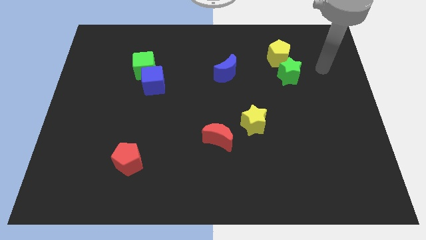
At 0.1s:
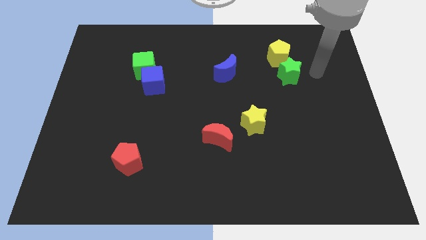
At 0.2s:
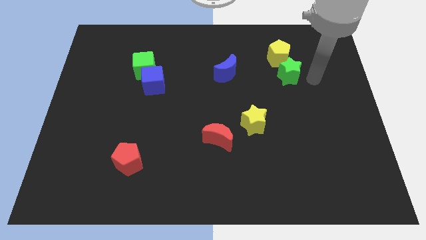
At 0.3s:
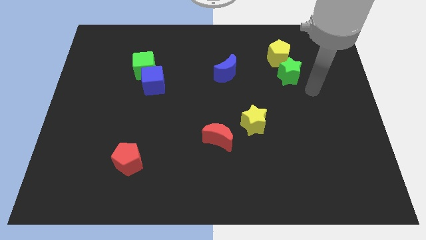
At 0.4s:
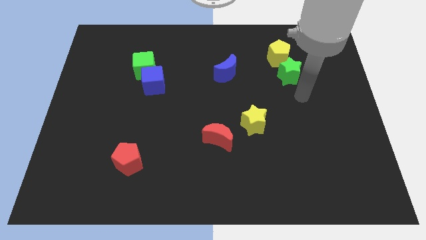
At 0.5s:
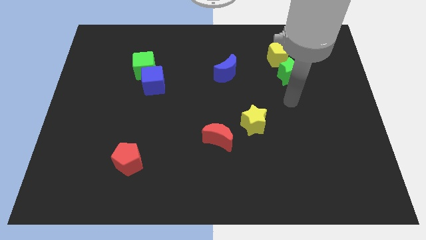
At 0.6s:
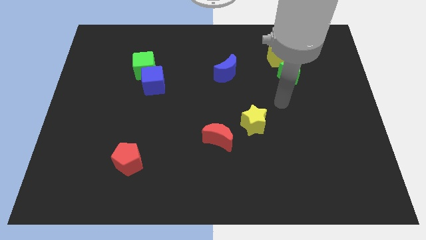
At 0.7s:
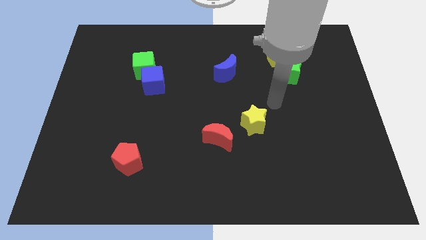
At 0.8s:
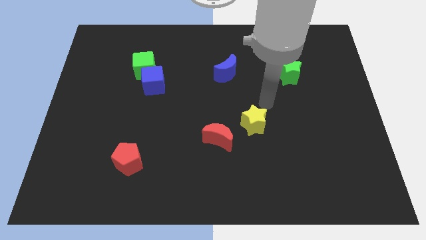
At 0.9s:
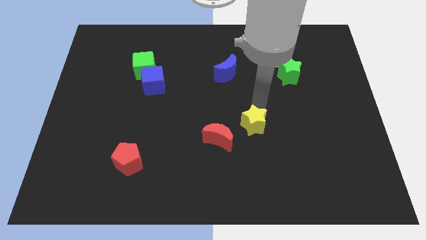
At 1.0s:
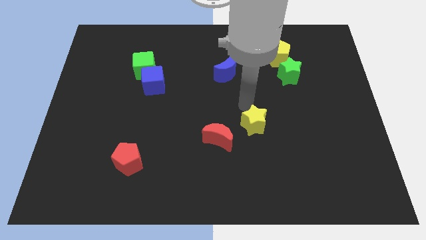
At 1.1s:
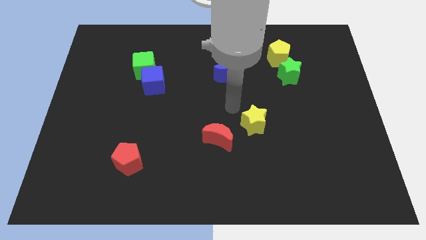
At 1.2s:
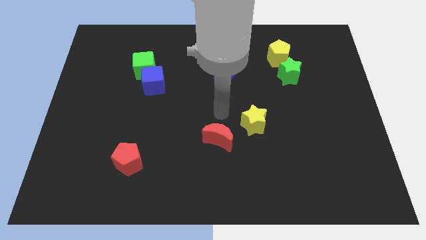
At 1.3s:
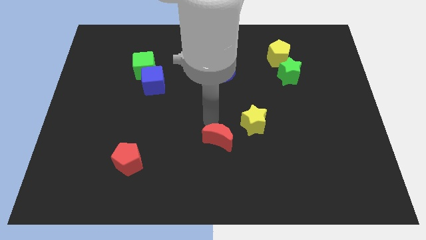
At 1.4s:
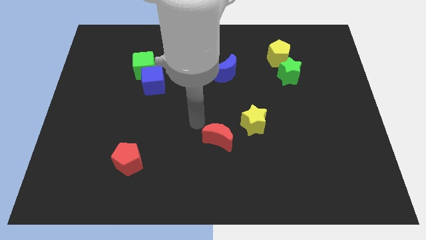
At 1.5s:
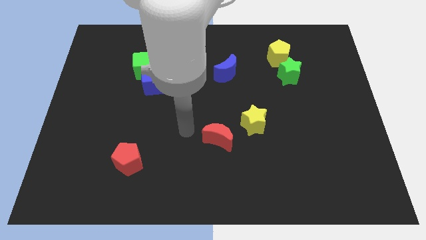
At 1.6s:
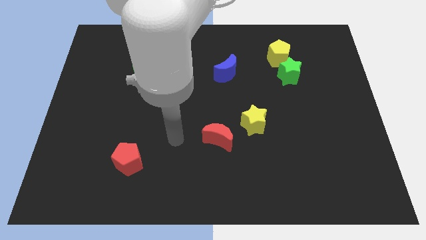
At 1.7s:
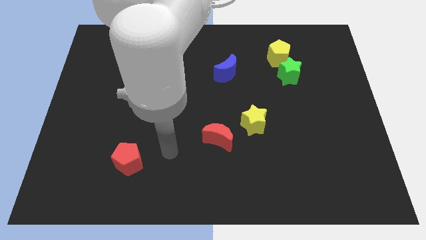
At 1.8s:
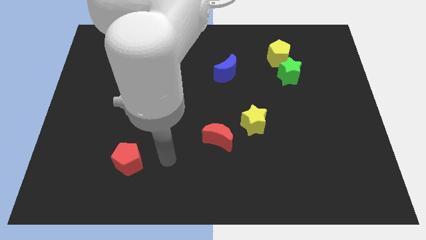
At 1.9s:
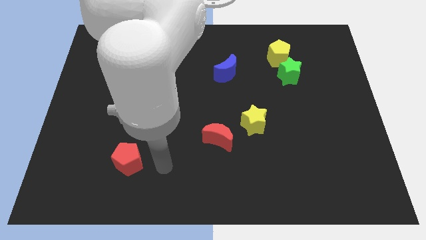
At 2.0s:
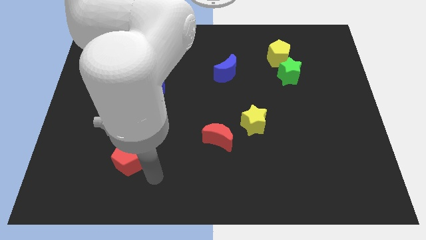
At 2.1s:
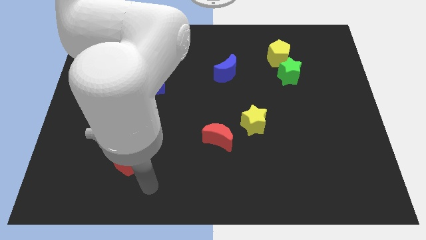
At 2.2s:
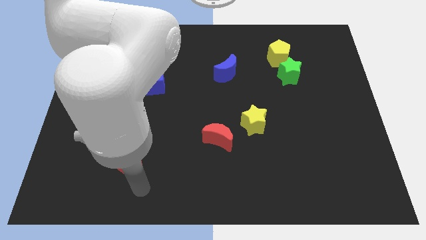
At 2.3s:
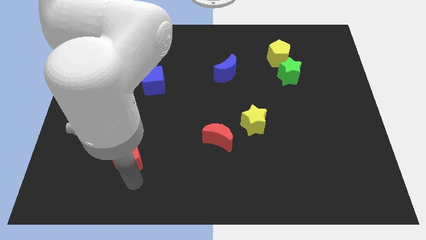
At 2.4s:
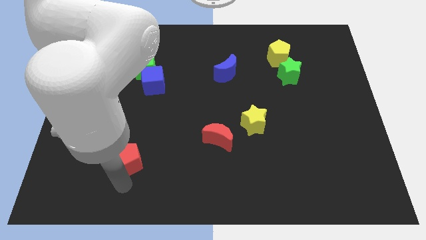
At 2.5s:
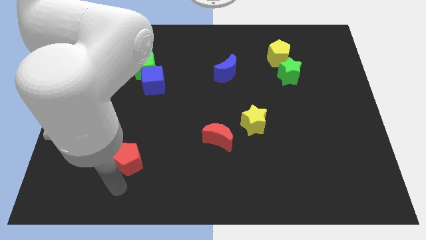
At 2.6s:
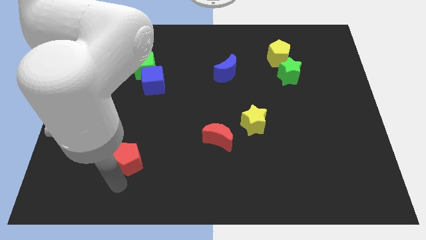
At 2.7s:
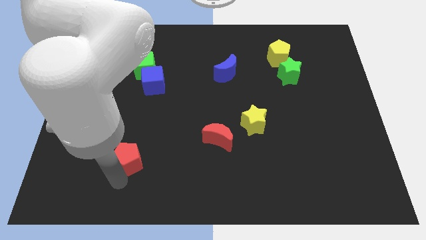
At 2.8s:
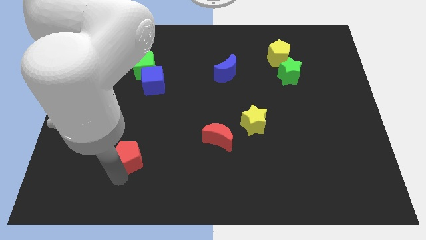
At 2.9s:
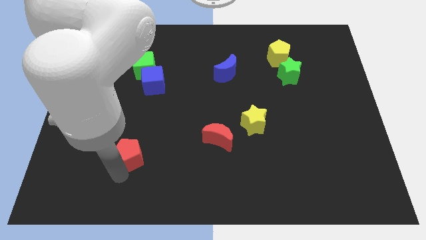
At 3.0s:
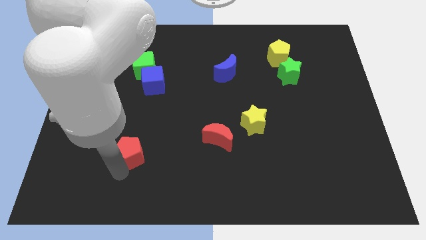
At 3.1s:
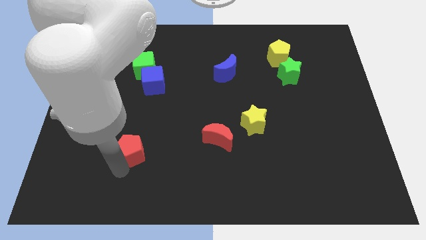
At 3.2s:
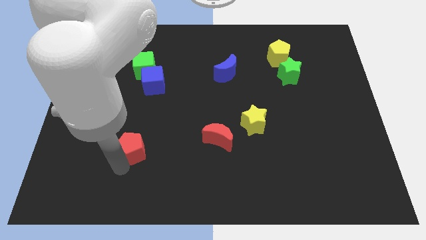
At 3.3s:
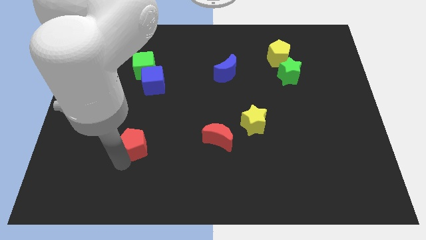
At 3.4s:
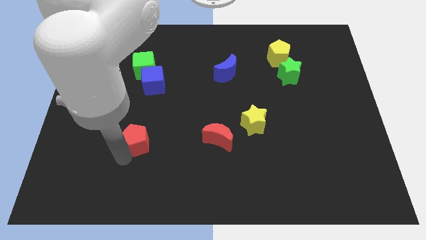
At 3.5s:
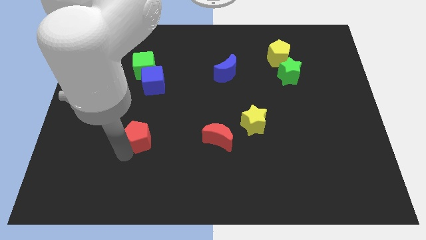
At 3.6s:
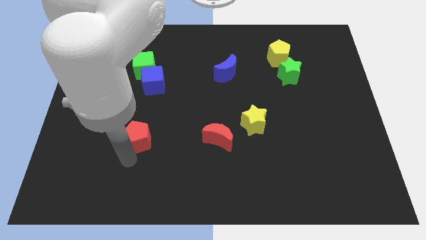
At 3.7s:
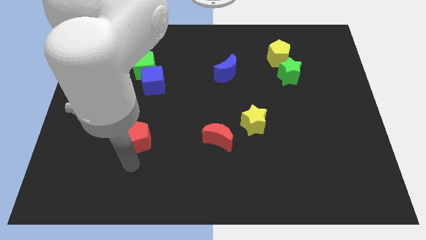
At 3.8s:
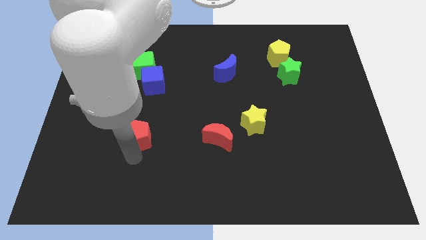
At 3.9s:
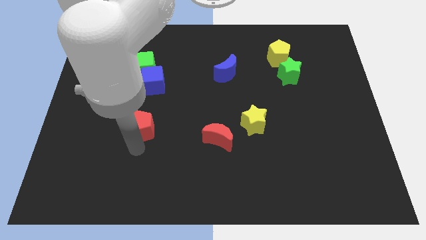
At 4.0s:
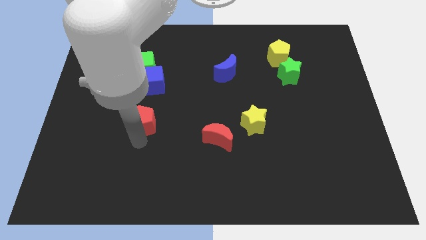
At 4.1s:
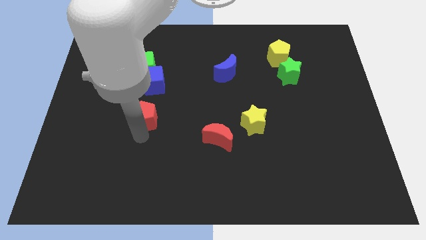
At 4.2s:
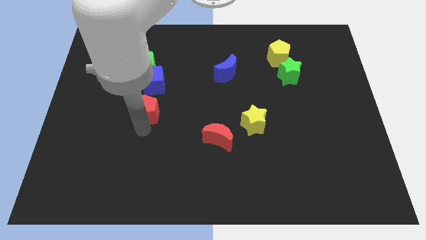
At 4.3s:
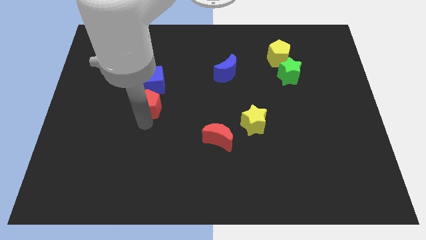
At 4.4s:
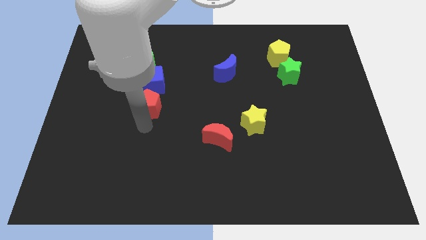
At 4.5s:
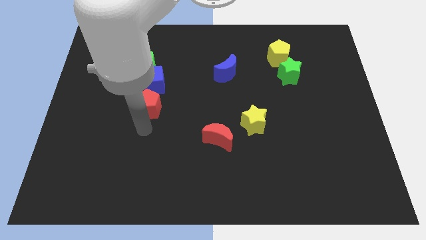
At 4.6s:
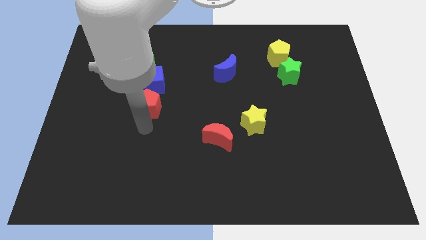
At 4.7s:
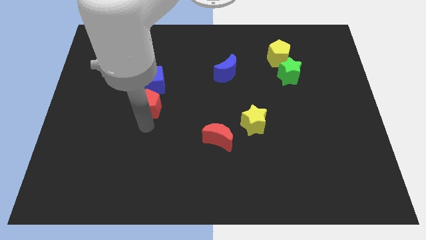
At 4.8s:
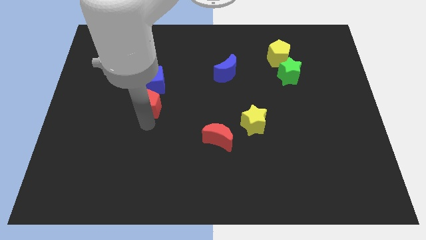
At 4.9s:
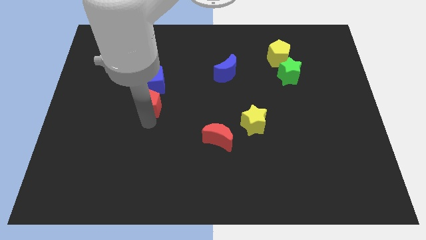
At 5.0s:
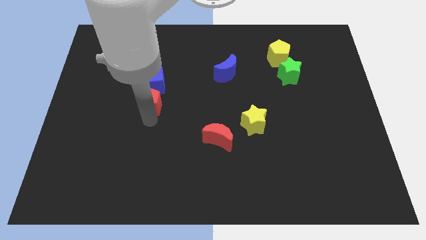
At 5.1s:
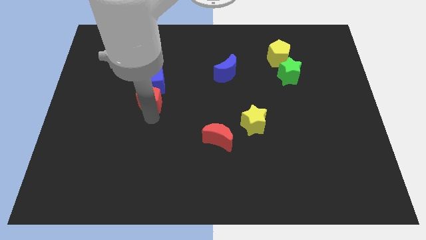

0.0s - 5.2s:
move the red pentagon next to the blue cube

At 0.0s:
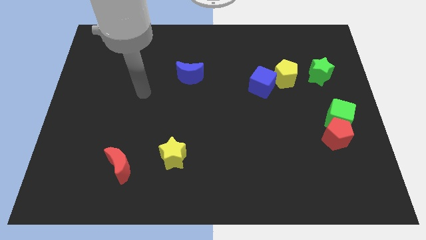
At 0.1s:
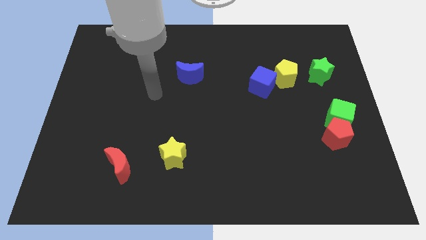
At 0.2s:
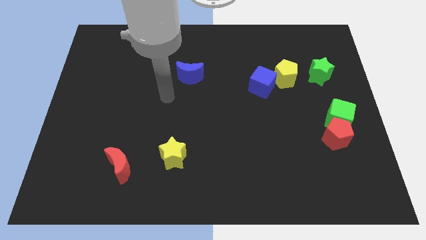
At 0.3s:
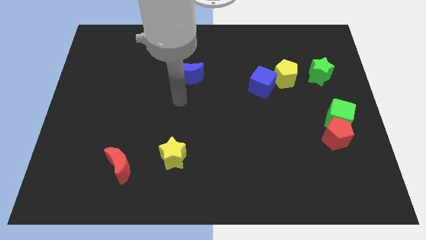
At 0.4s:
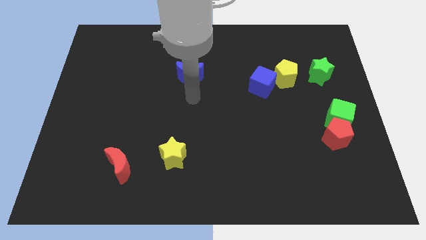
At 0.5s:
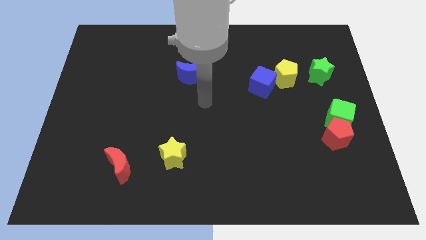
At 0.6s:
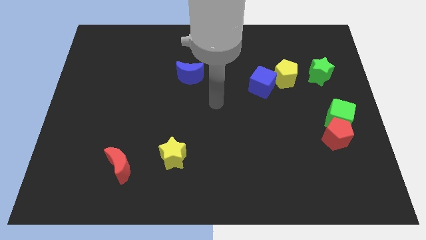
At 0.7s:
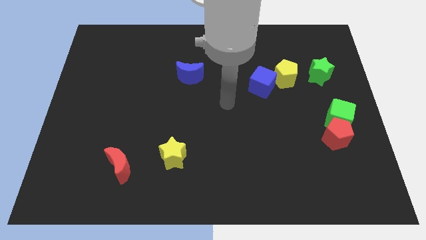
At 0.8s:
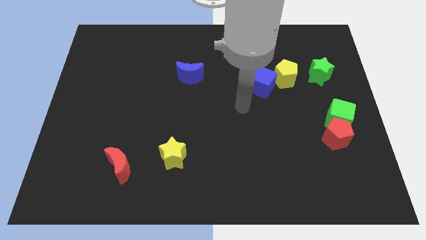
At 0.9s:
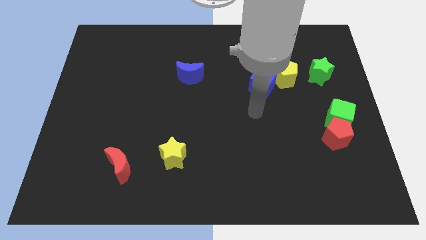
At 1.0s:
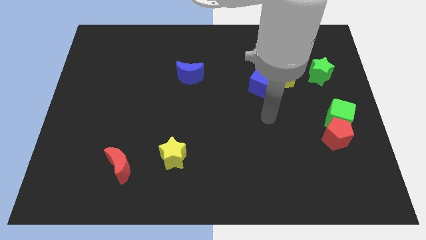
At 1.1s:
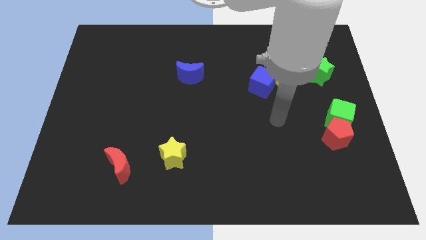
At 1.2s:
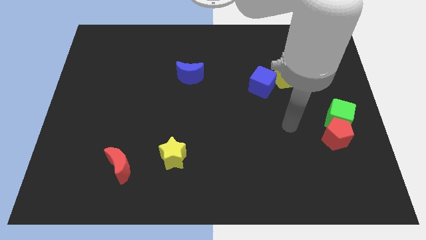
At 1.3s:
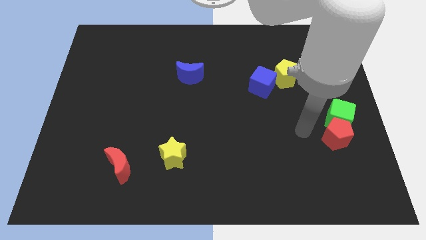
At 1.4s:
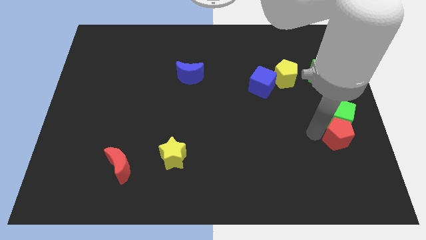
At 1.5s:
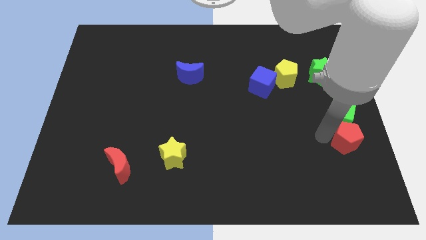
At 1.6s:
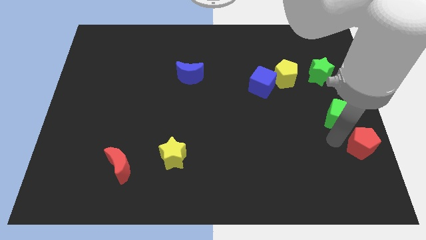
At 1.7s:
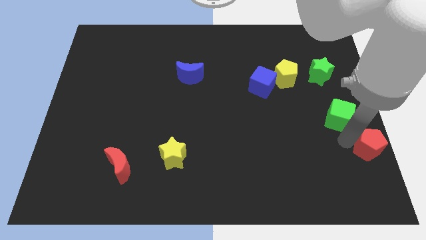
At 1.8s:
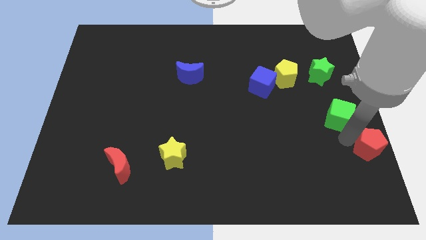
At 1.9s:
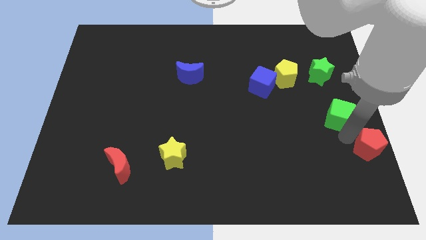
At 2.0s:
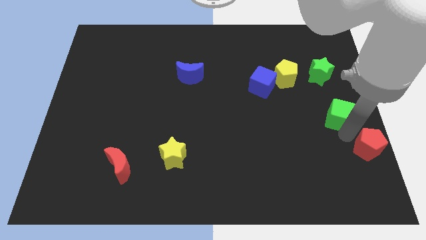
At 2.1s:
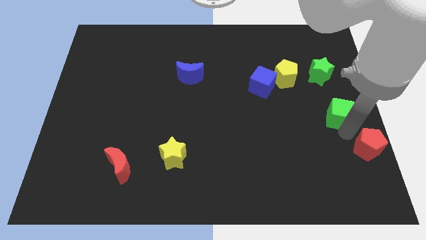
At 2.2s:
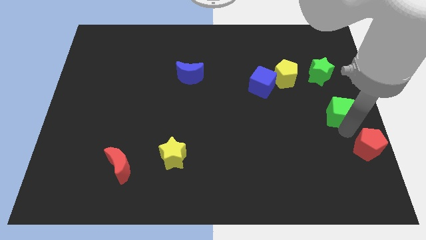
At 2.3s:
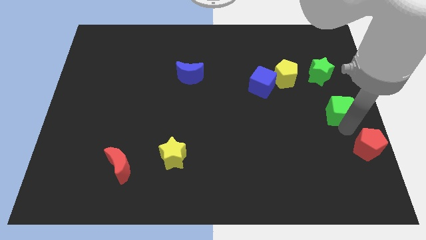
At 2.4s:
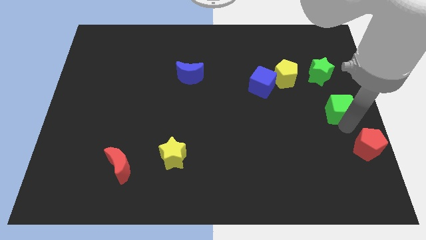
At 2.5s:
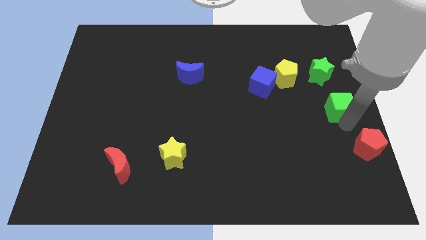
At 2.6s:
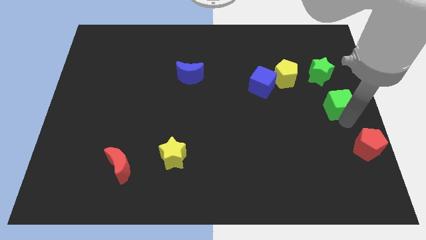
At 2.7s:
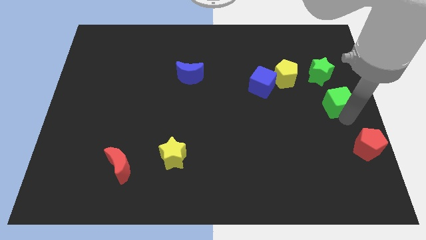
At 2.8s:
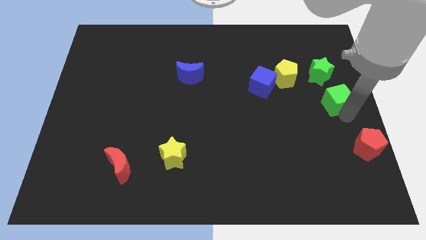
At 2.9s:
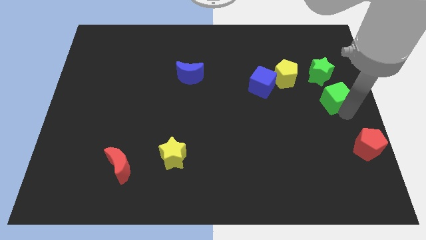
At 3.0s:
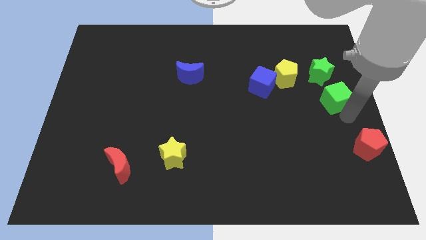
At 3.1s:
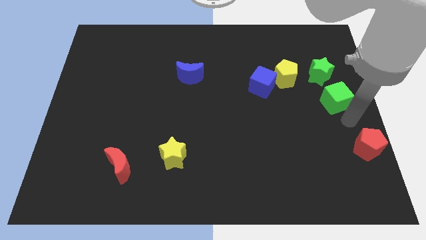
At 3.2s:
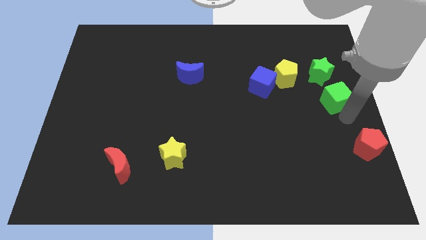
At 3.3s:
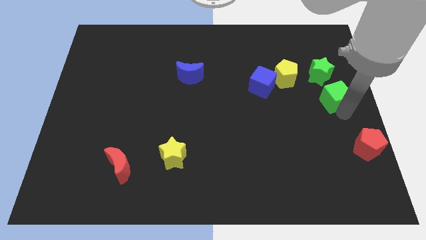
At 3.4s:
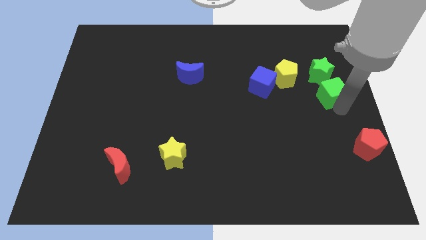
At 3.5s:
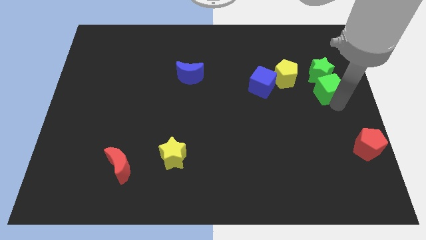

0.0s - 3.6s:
put the green cube next to the green star
